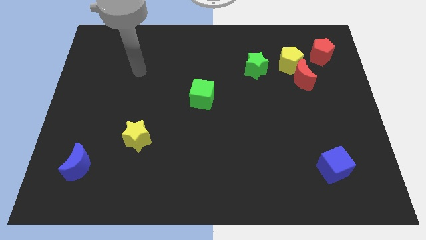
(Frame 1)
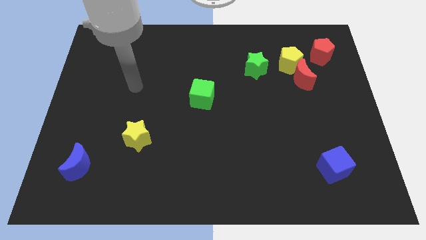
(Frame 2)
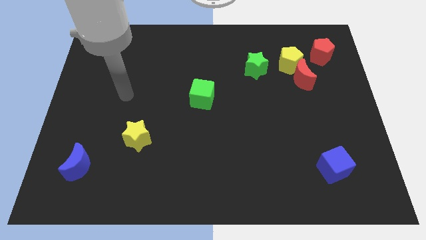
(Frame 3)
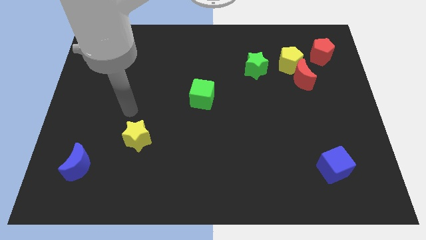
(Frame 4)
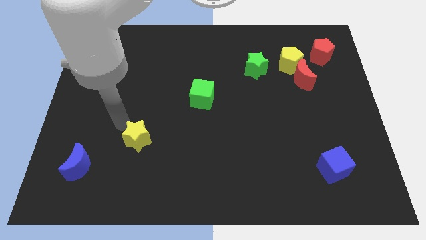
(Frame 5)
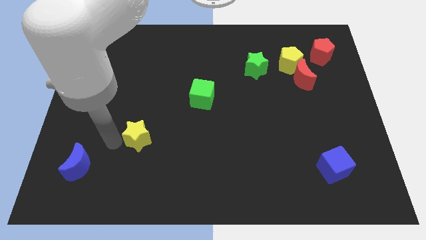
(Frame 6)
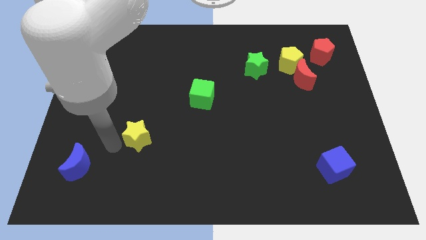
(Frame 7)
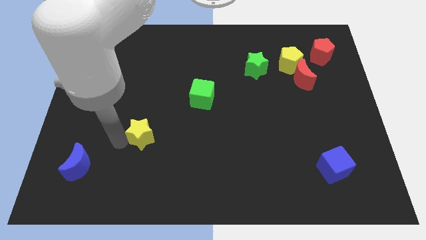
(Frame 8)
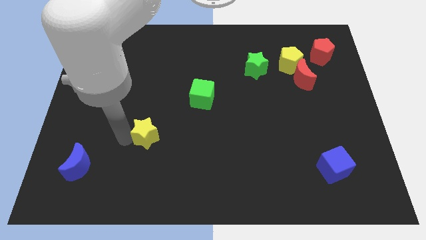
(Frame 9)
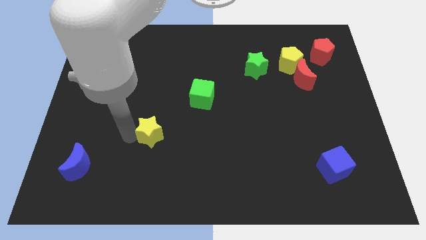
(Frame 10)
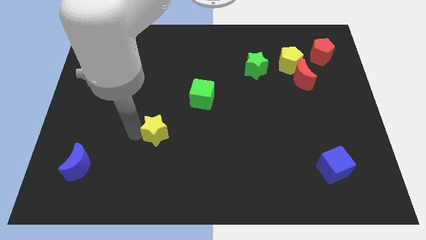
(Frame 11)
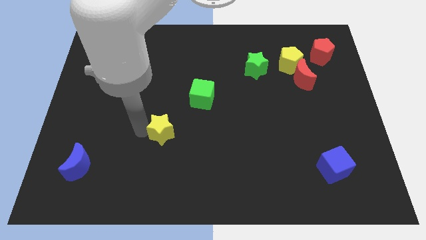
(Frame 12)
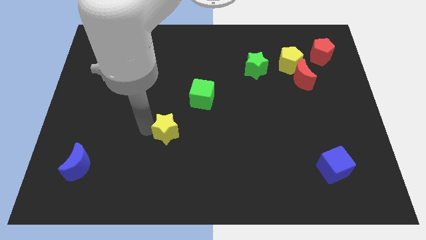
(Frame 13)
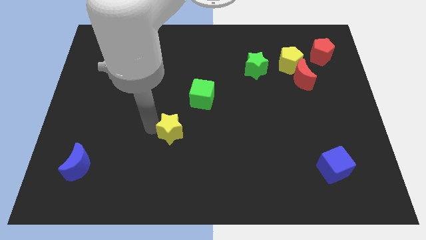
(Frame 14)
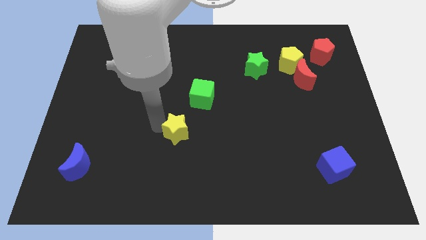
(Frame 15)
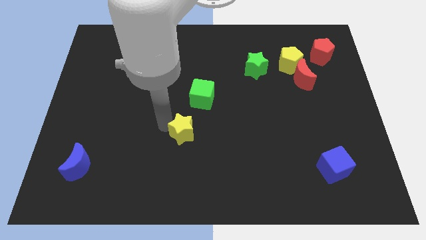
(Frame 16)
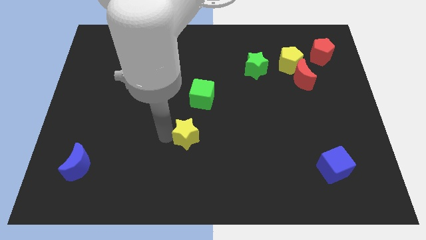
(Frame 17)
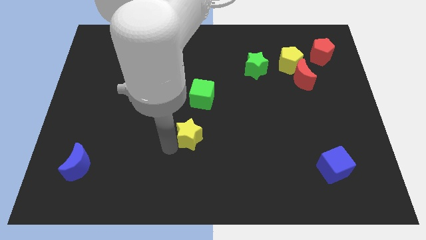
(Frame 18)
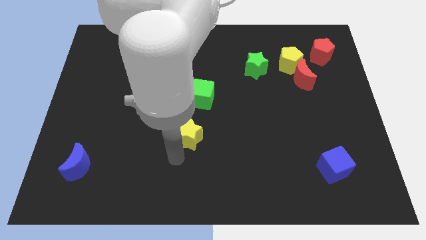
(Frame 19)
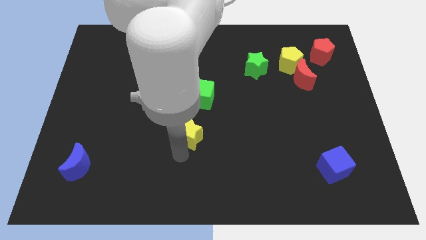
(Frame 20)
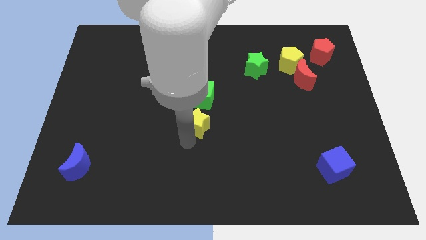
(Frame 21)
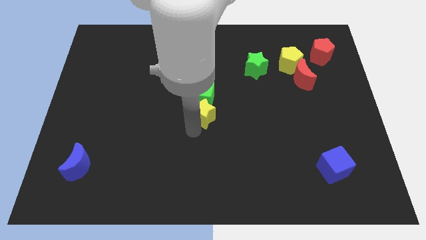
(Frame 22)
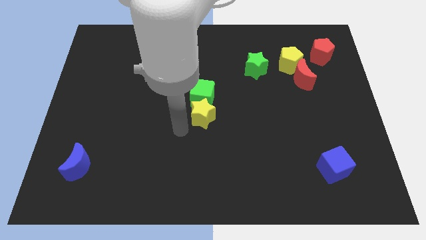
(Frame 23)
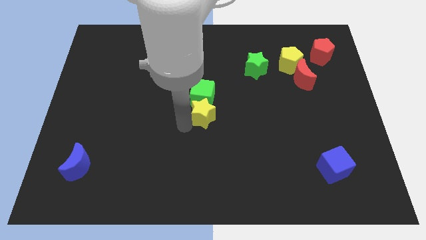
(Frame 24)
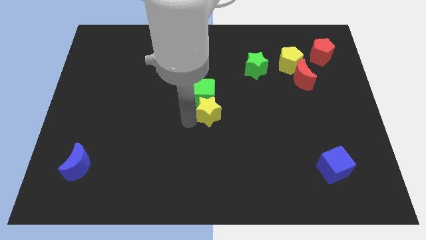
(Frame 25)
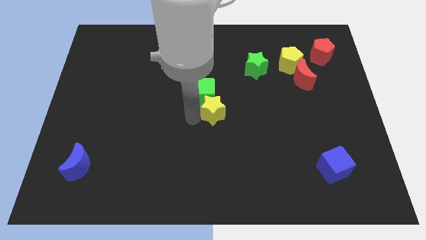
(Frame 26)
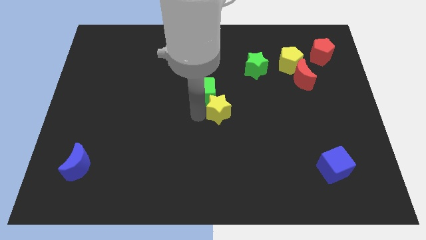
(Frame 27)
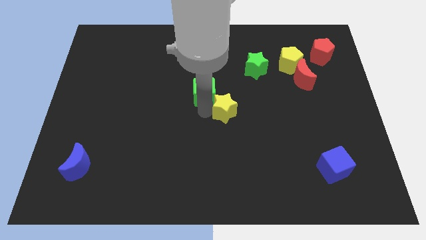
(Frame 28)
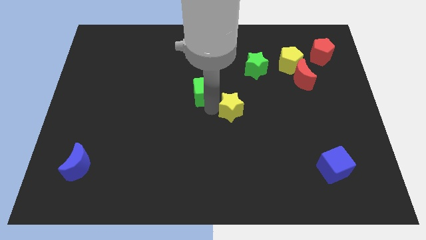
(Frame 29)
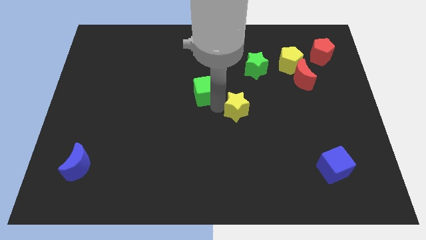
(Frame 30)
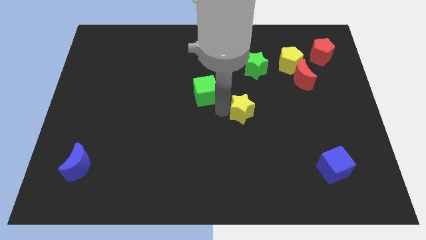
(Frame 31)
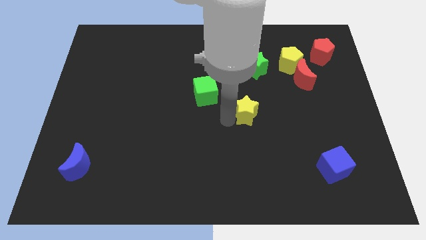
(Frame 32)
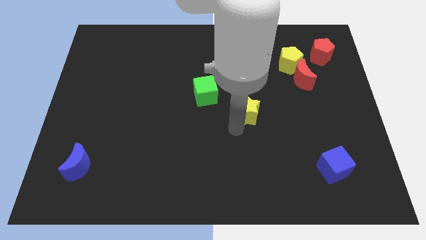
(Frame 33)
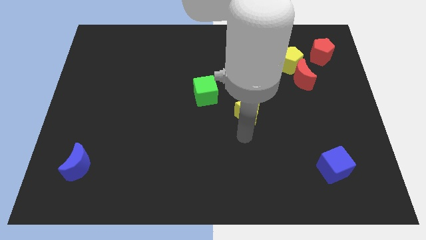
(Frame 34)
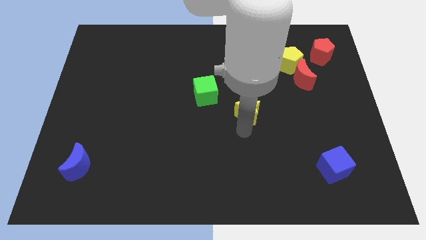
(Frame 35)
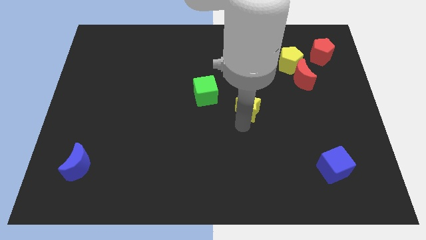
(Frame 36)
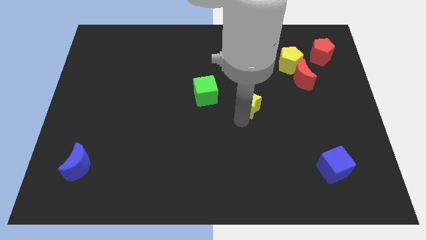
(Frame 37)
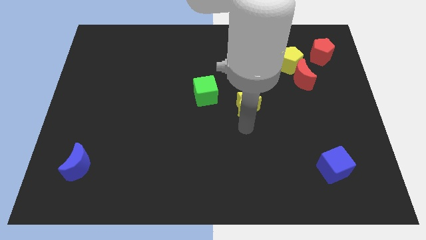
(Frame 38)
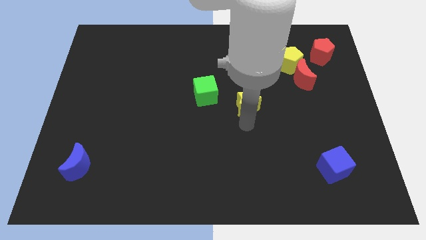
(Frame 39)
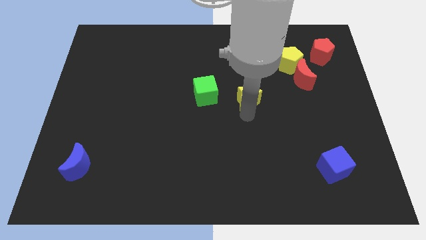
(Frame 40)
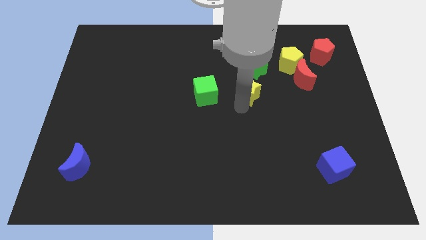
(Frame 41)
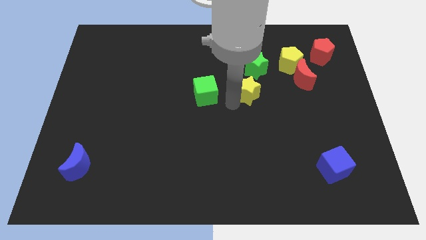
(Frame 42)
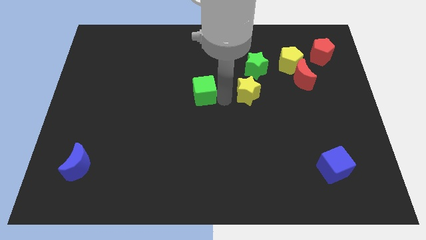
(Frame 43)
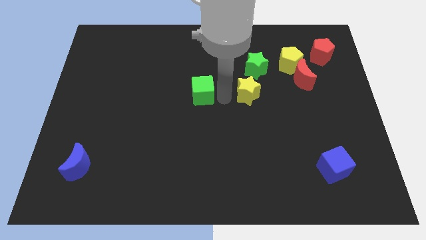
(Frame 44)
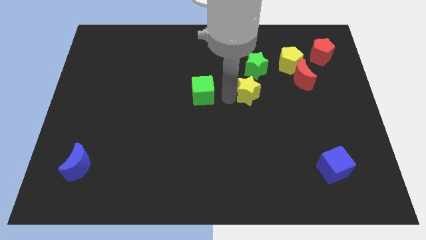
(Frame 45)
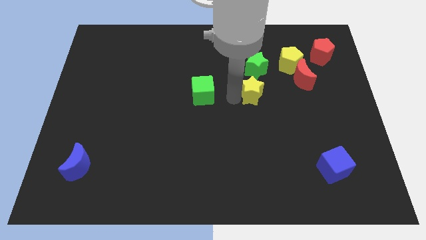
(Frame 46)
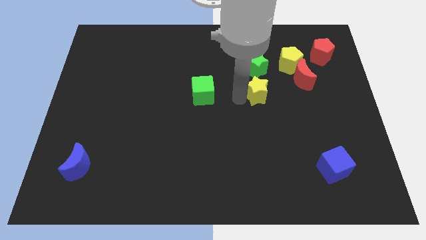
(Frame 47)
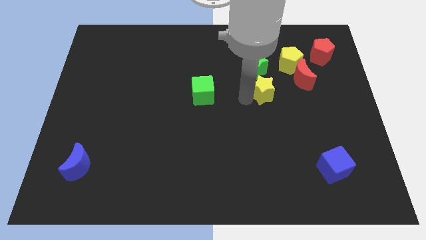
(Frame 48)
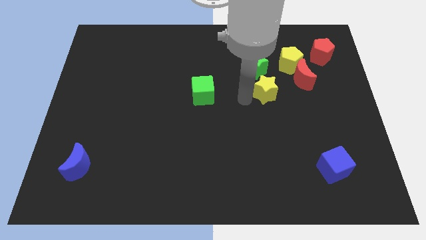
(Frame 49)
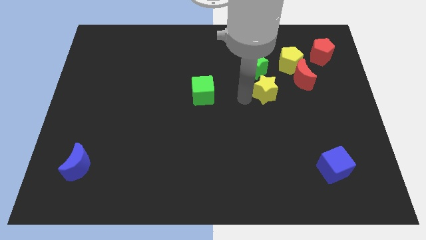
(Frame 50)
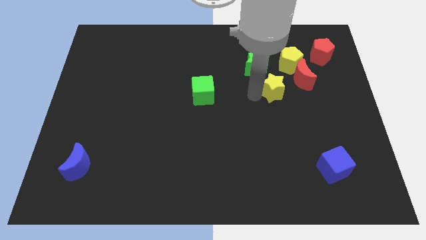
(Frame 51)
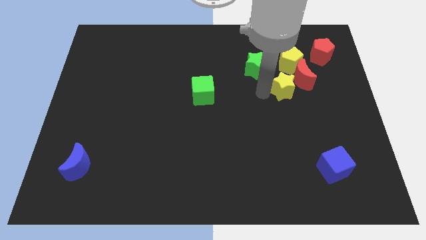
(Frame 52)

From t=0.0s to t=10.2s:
push the yellow star to the red moon

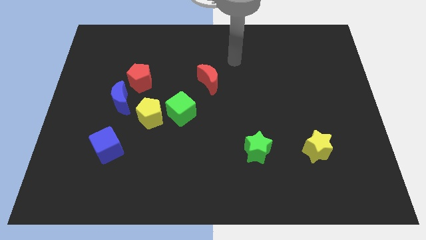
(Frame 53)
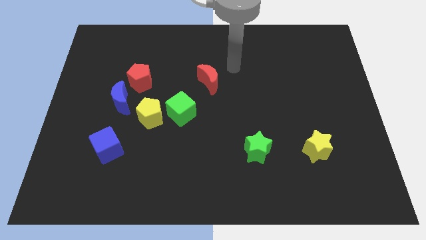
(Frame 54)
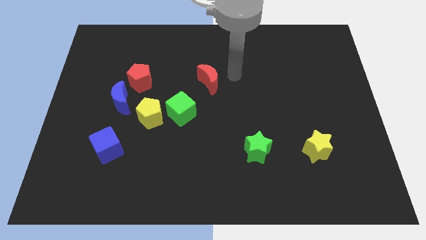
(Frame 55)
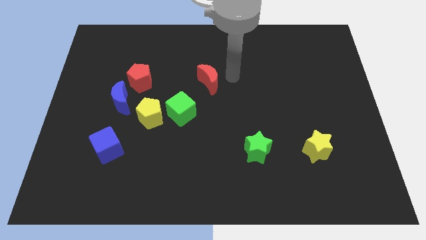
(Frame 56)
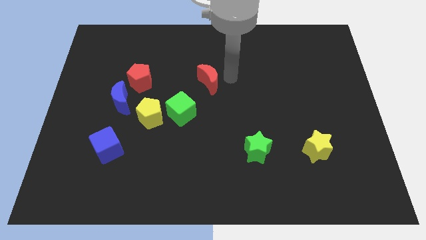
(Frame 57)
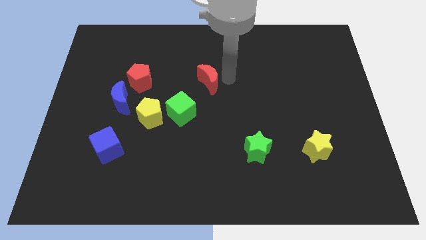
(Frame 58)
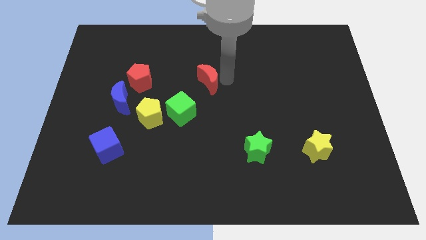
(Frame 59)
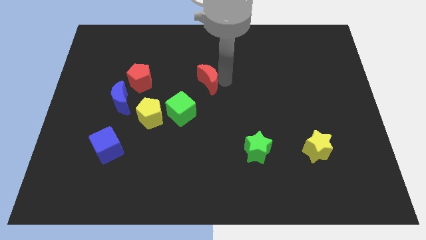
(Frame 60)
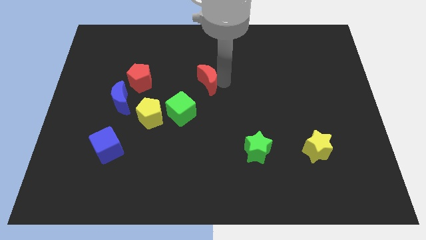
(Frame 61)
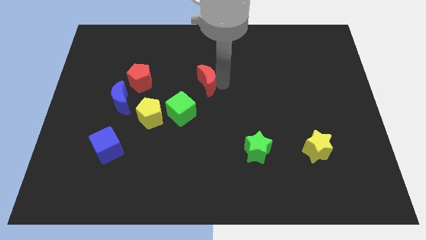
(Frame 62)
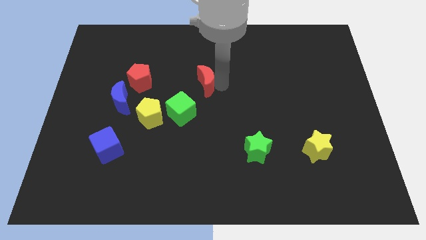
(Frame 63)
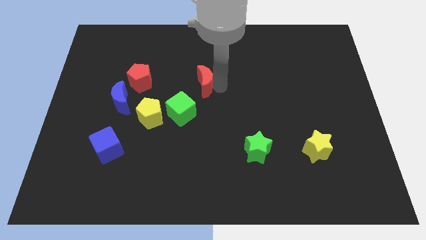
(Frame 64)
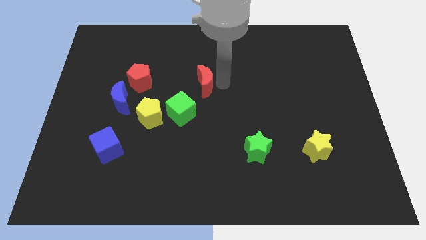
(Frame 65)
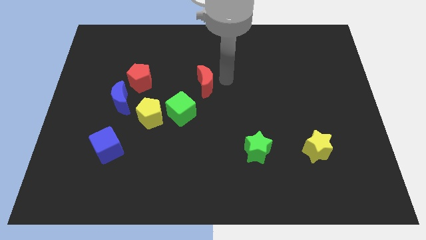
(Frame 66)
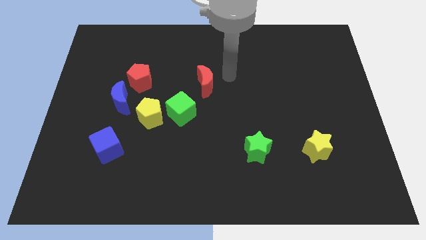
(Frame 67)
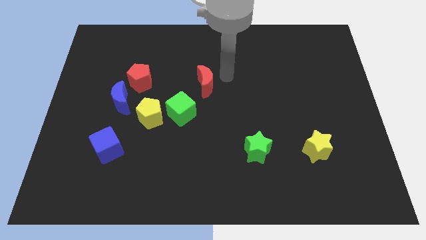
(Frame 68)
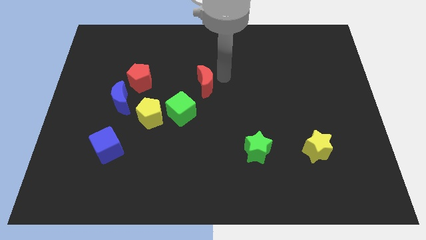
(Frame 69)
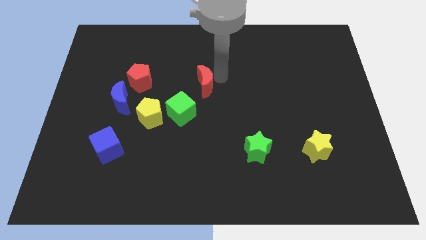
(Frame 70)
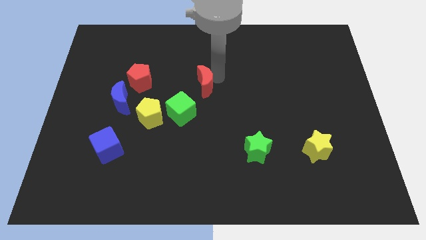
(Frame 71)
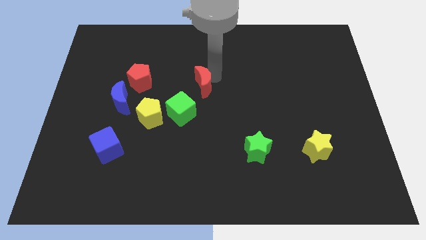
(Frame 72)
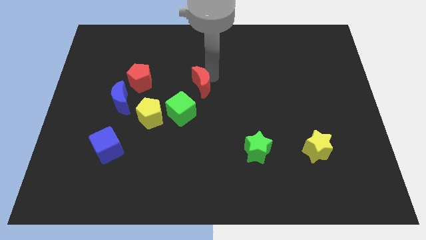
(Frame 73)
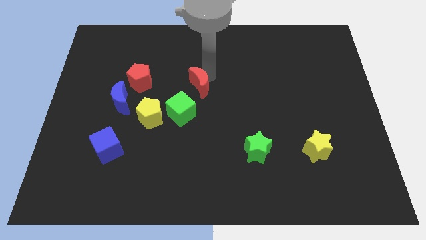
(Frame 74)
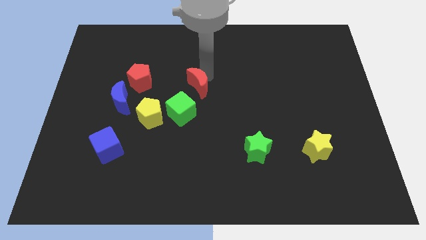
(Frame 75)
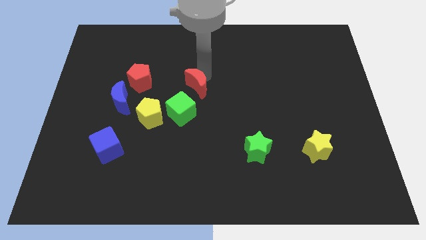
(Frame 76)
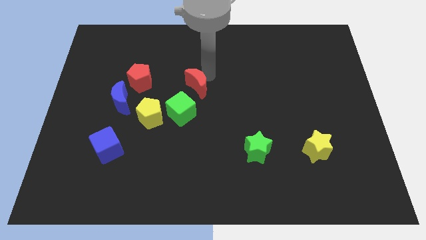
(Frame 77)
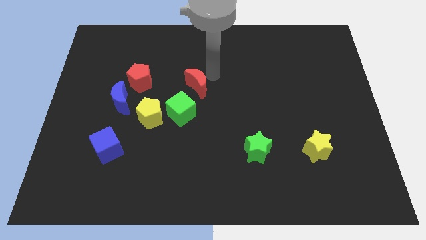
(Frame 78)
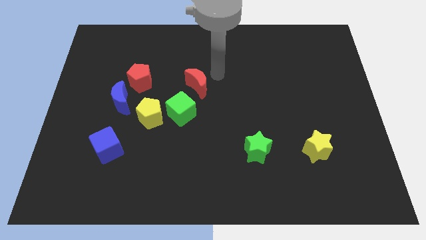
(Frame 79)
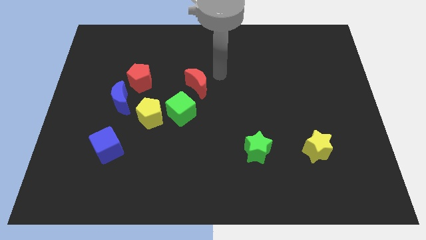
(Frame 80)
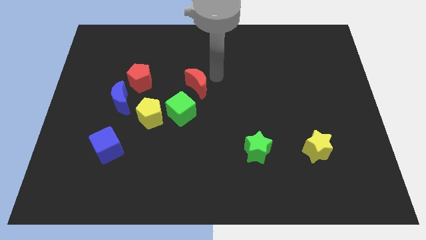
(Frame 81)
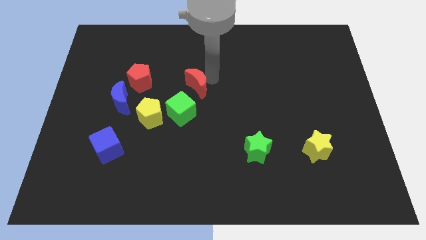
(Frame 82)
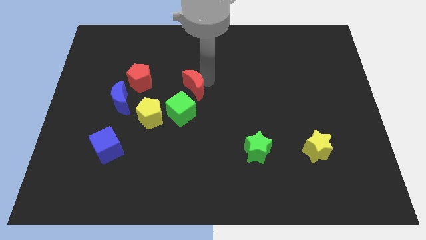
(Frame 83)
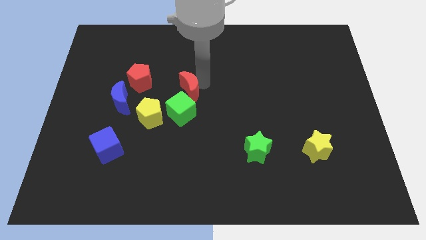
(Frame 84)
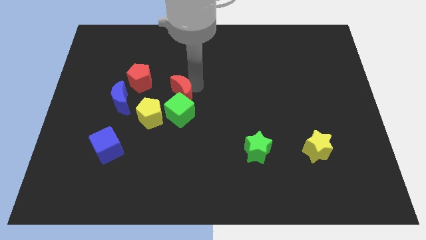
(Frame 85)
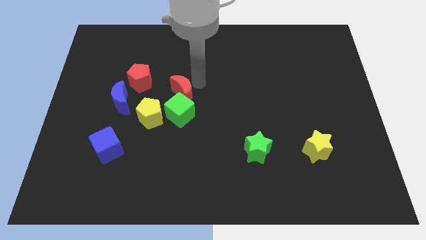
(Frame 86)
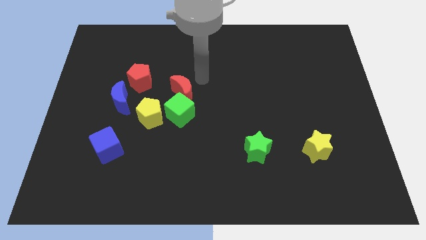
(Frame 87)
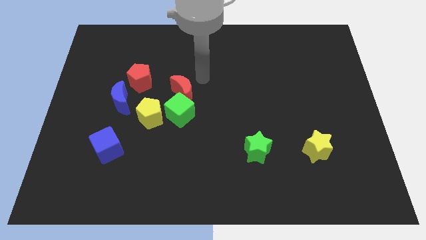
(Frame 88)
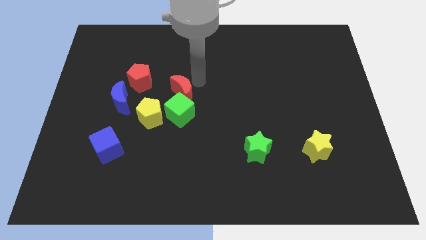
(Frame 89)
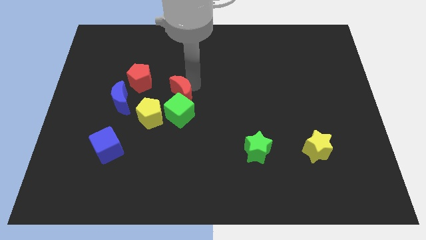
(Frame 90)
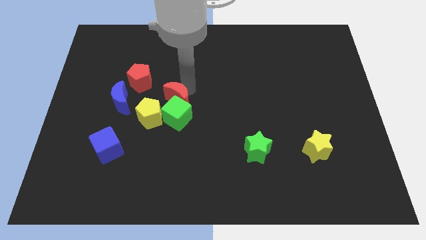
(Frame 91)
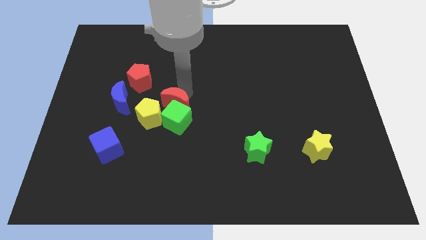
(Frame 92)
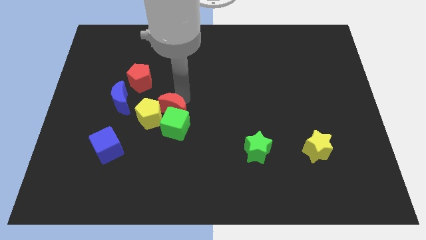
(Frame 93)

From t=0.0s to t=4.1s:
move the red moon to the yellow pentagon
